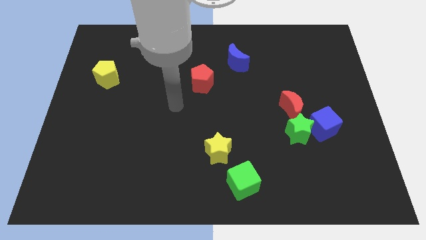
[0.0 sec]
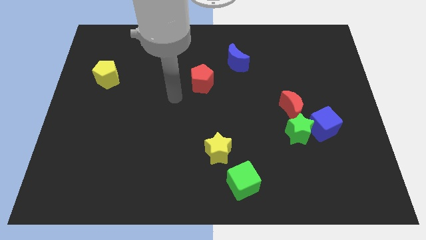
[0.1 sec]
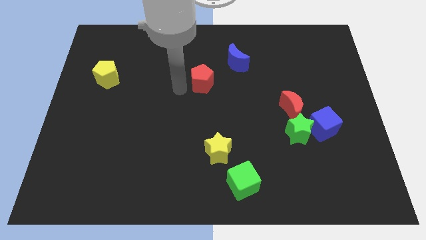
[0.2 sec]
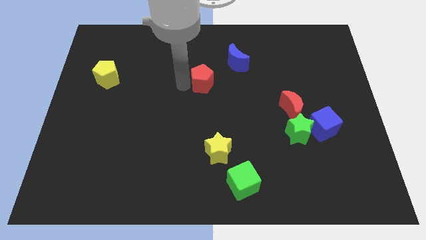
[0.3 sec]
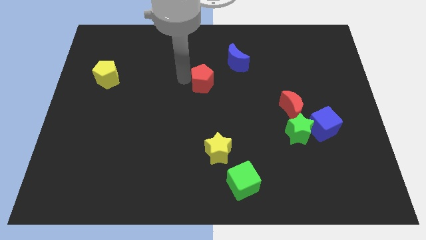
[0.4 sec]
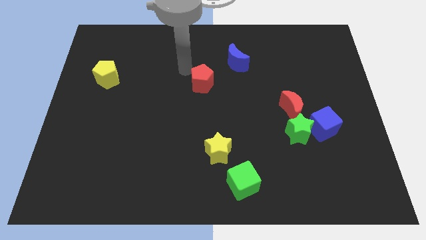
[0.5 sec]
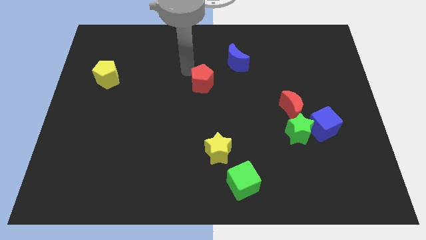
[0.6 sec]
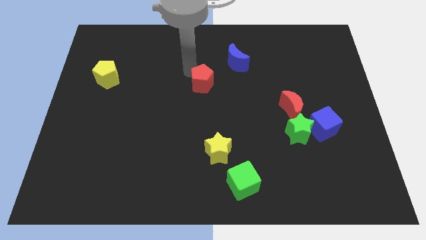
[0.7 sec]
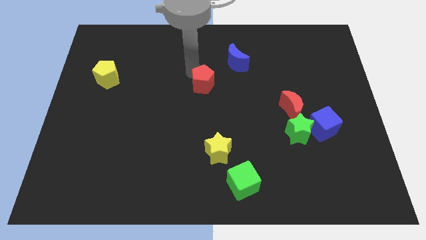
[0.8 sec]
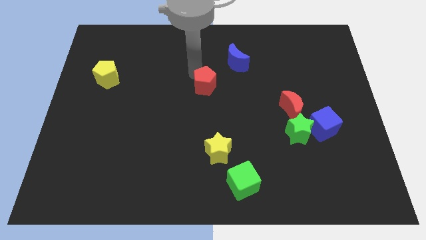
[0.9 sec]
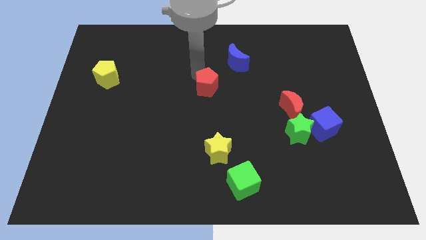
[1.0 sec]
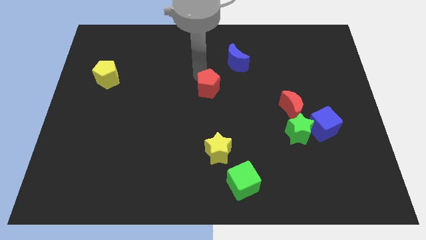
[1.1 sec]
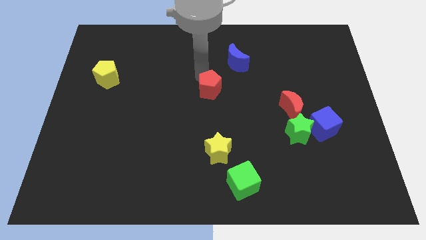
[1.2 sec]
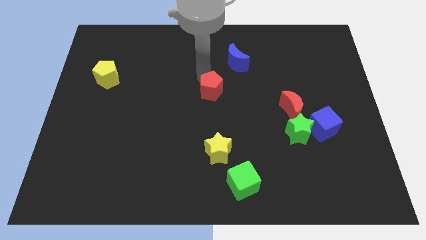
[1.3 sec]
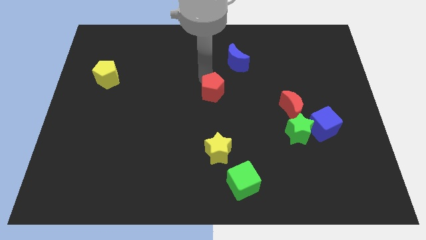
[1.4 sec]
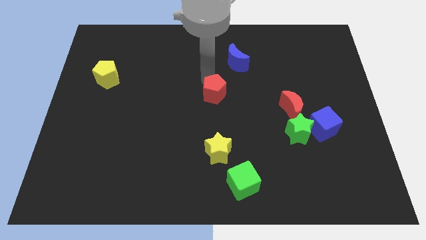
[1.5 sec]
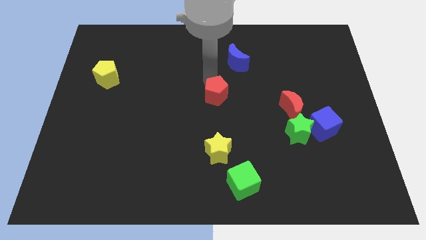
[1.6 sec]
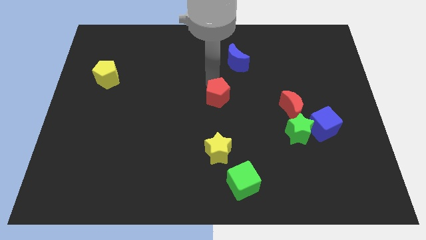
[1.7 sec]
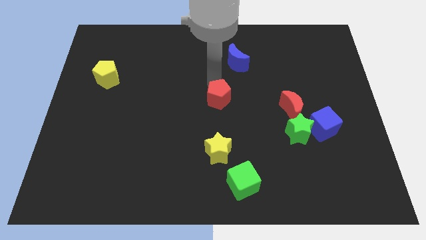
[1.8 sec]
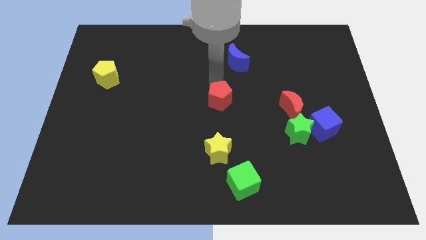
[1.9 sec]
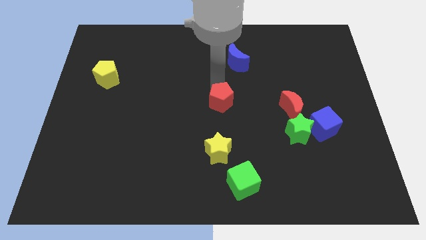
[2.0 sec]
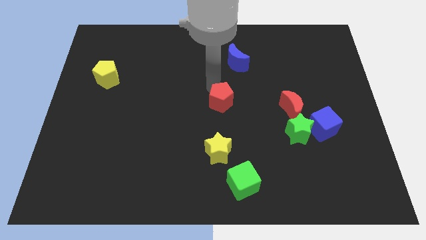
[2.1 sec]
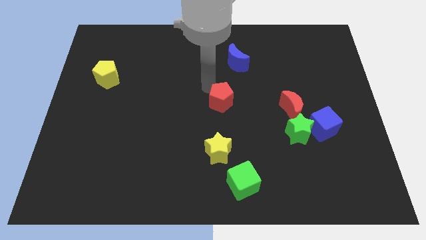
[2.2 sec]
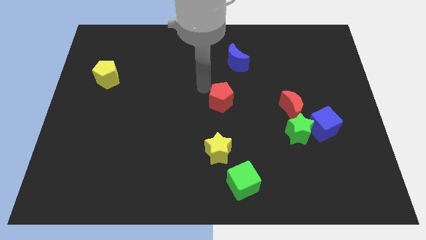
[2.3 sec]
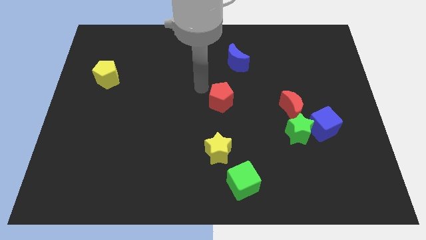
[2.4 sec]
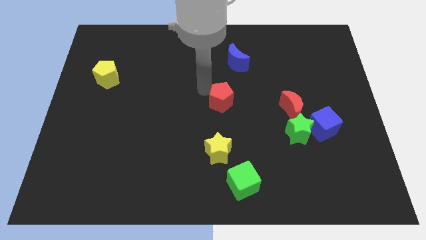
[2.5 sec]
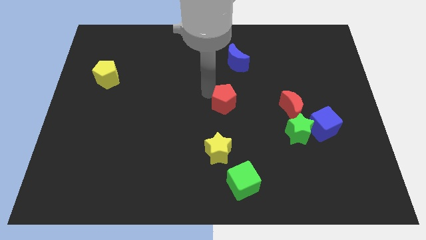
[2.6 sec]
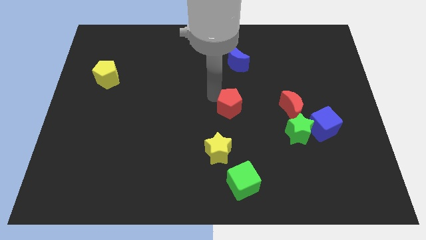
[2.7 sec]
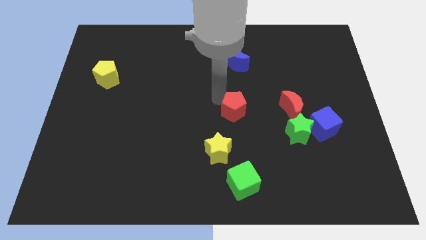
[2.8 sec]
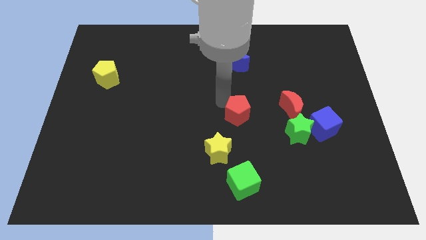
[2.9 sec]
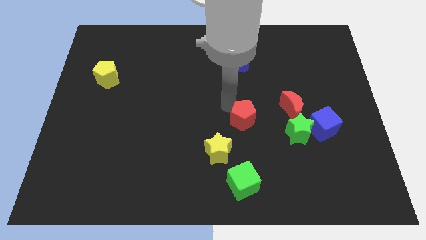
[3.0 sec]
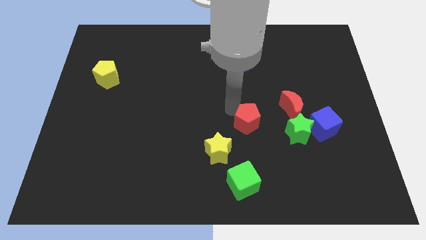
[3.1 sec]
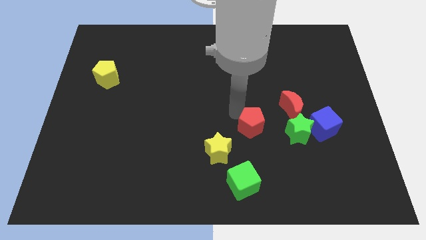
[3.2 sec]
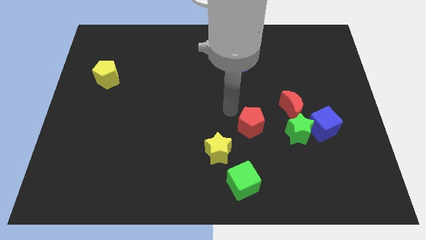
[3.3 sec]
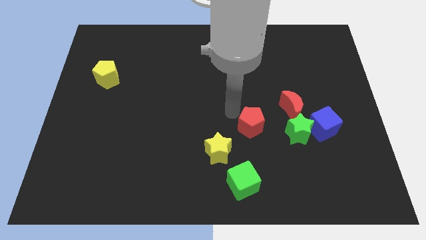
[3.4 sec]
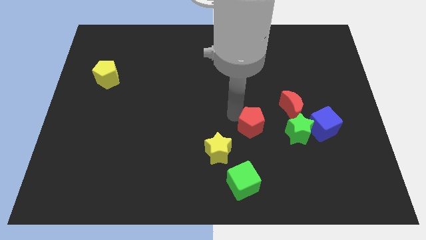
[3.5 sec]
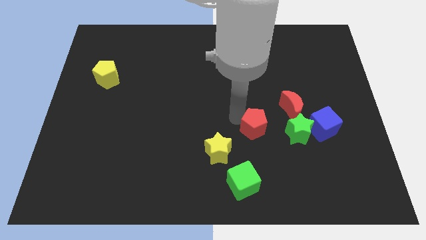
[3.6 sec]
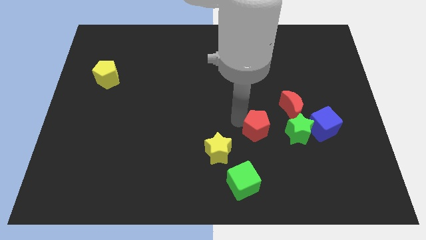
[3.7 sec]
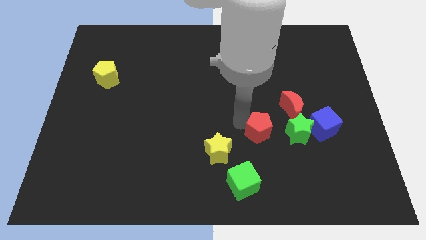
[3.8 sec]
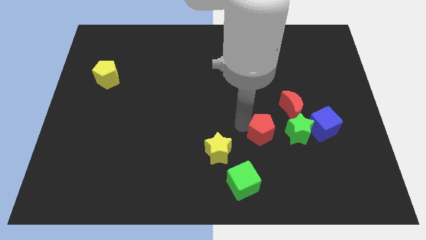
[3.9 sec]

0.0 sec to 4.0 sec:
push the red pentagon down and to the right diagonally

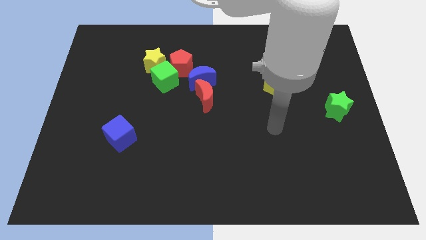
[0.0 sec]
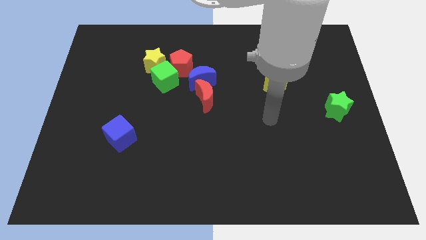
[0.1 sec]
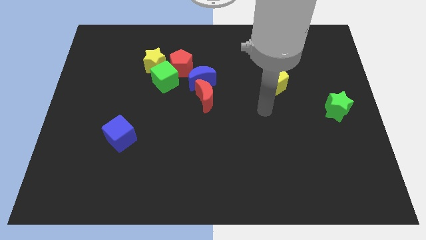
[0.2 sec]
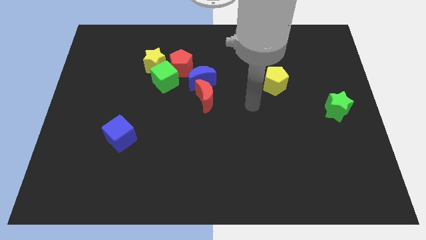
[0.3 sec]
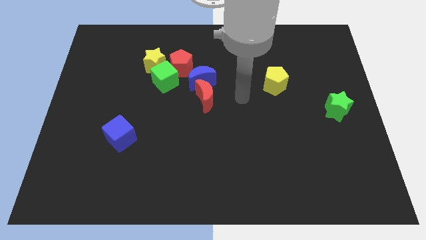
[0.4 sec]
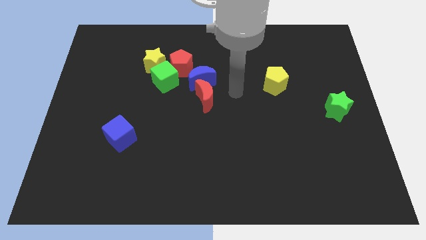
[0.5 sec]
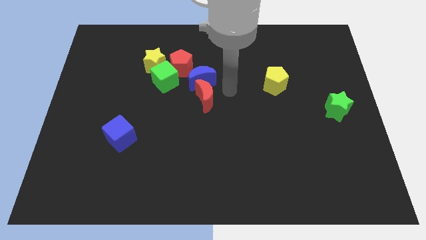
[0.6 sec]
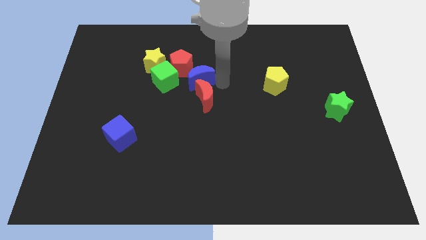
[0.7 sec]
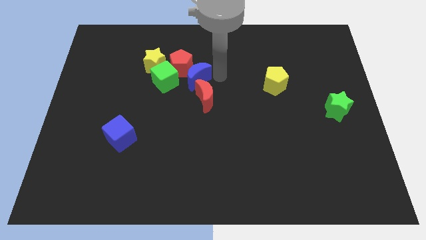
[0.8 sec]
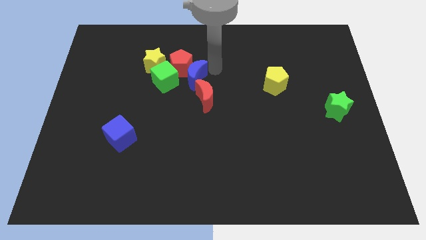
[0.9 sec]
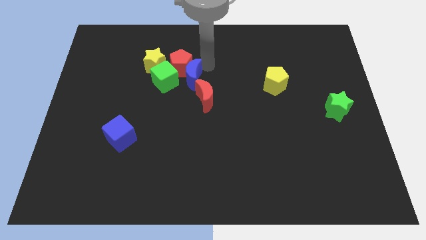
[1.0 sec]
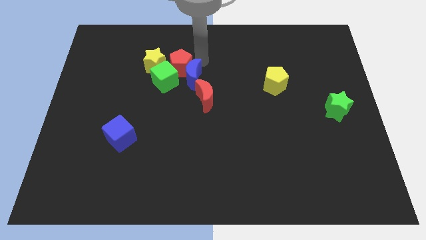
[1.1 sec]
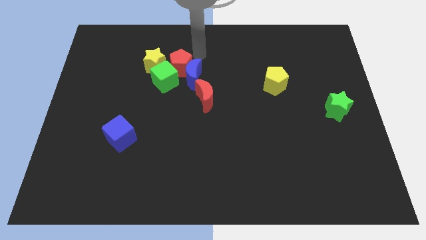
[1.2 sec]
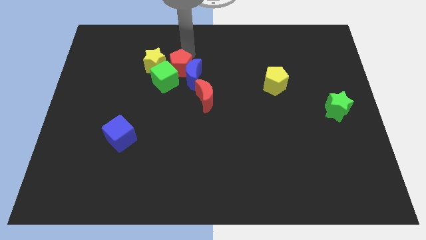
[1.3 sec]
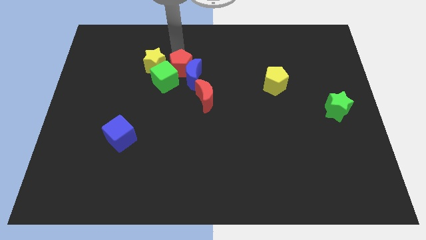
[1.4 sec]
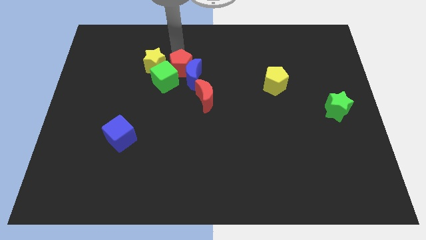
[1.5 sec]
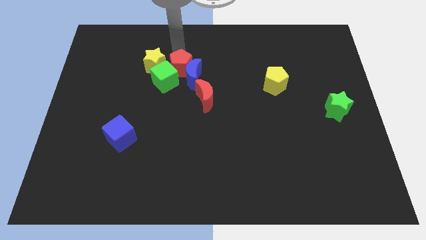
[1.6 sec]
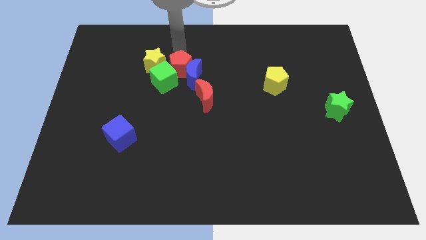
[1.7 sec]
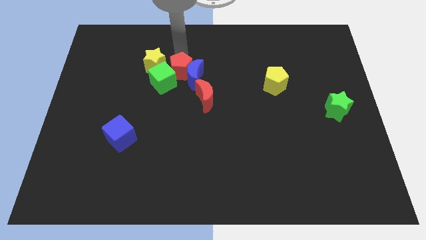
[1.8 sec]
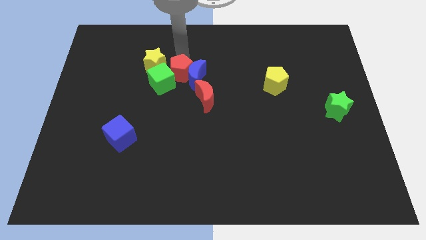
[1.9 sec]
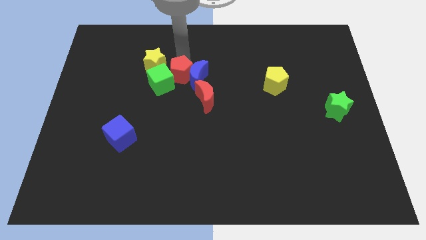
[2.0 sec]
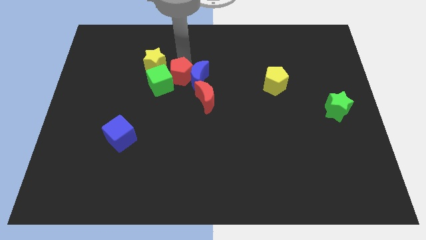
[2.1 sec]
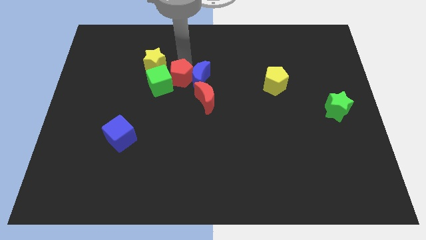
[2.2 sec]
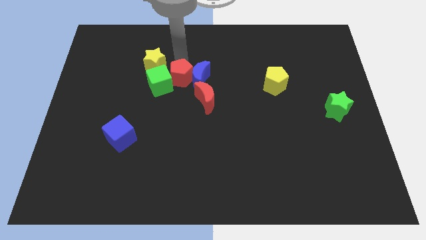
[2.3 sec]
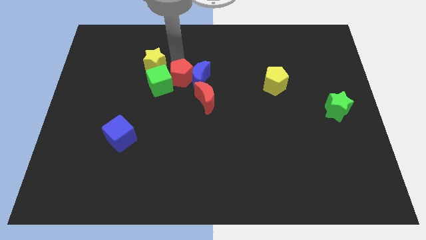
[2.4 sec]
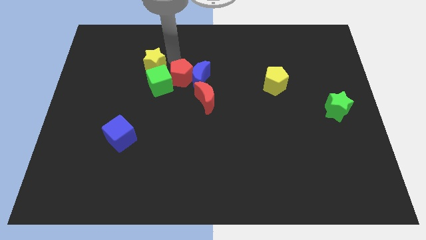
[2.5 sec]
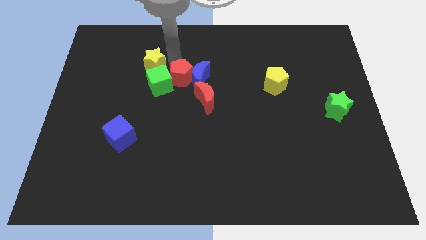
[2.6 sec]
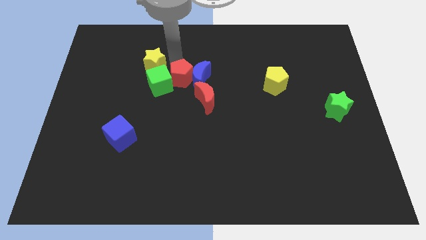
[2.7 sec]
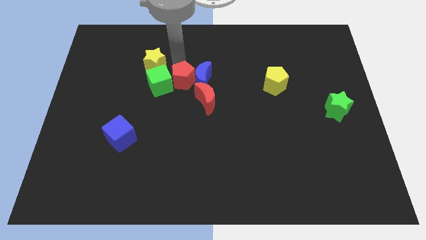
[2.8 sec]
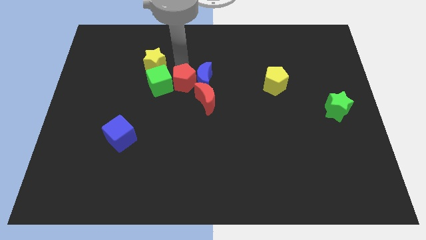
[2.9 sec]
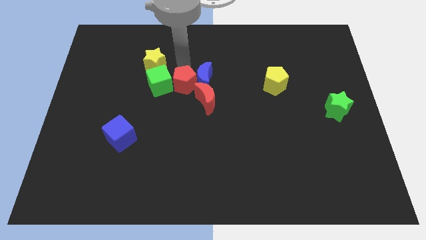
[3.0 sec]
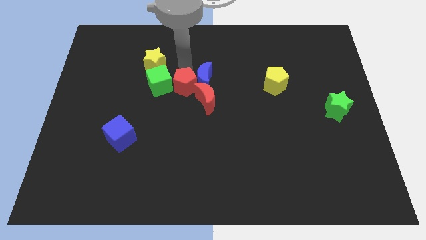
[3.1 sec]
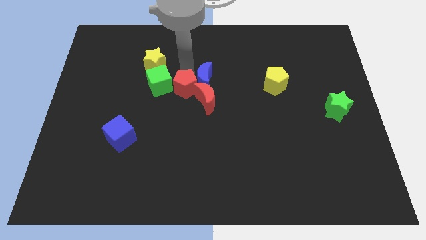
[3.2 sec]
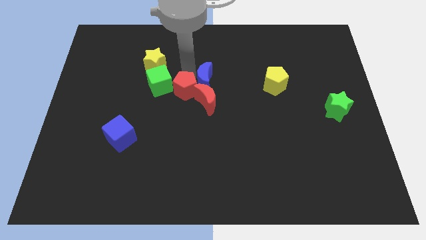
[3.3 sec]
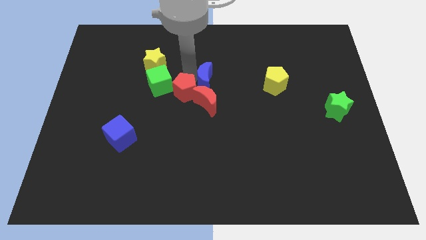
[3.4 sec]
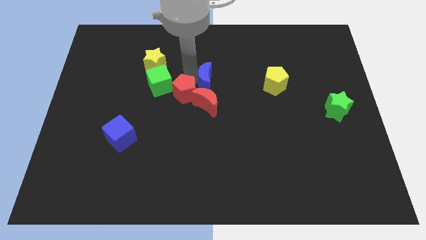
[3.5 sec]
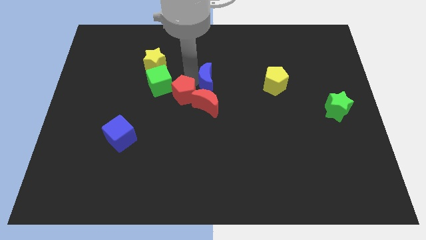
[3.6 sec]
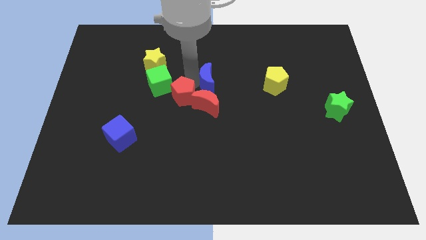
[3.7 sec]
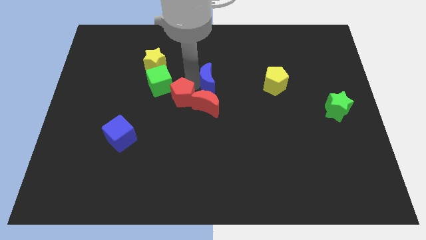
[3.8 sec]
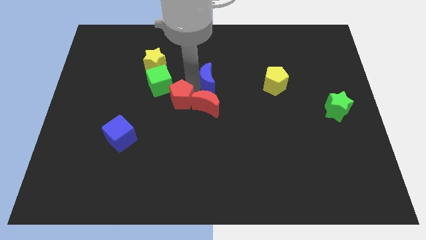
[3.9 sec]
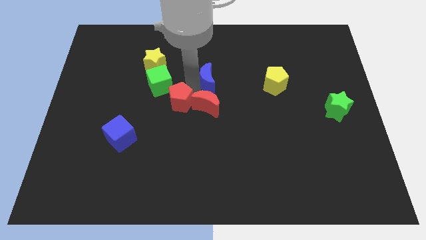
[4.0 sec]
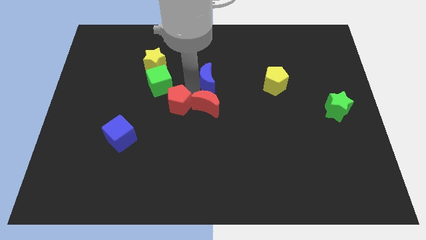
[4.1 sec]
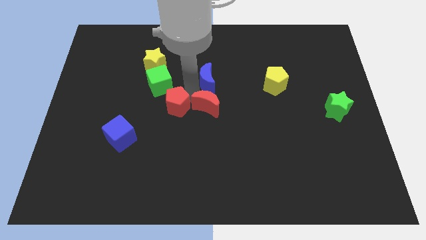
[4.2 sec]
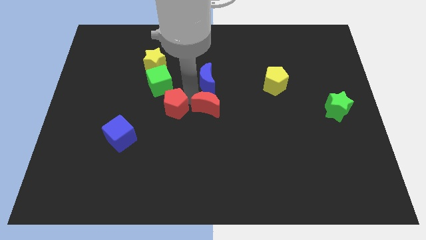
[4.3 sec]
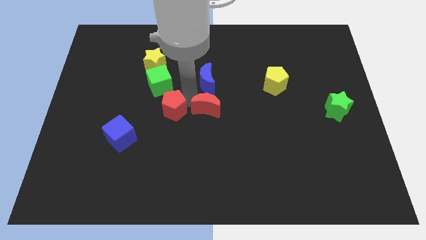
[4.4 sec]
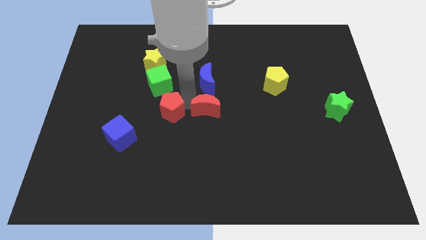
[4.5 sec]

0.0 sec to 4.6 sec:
move the red pentagon a little bit diagonally down and to the left
